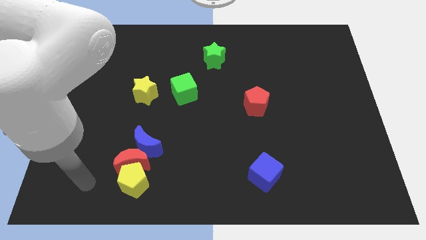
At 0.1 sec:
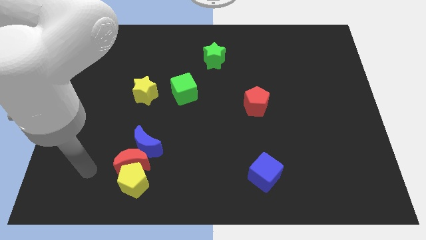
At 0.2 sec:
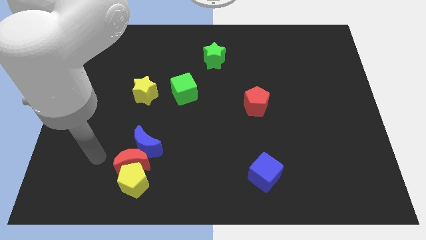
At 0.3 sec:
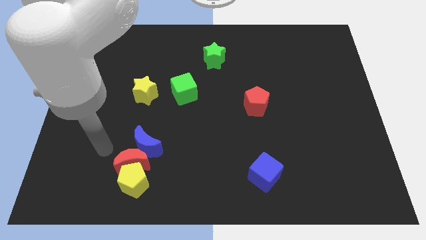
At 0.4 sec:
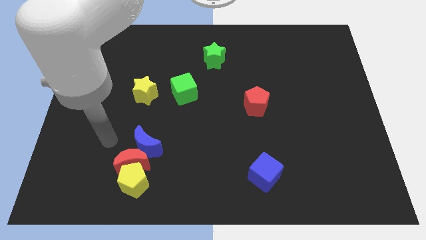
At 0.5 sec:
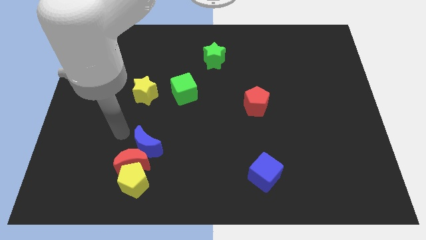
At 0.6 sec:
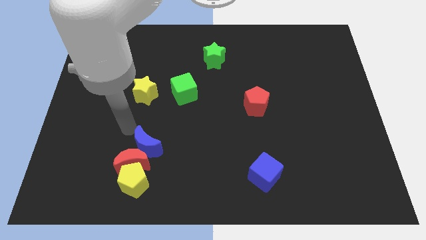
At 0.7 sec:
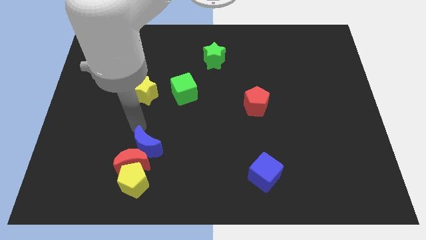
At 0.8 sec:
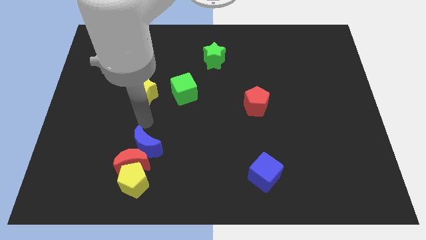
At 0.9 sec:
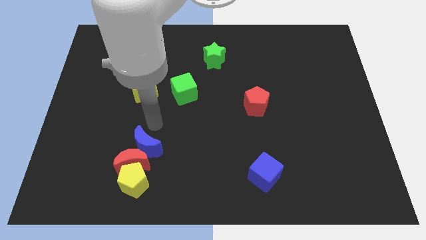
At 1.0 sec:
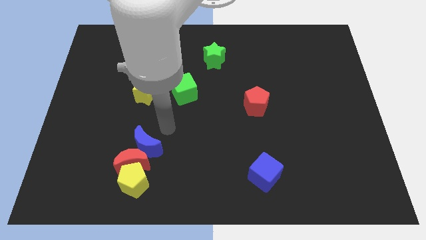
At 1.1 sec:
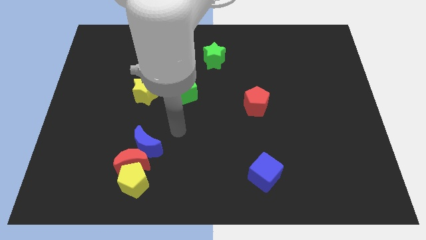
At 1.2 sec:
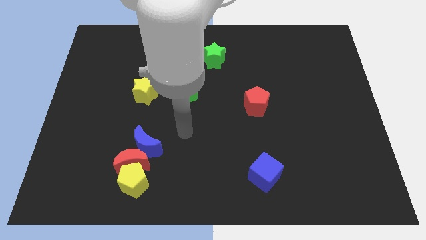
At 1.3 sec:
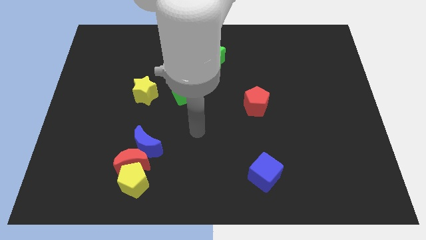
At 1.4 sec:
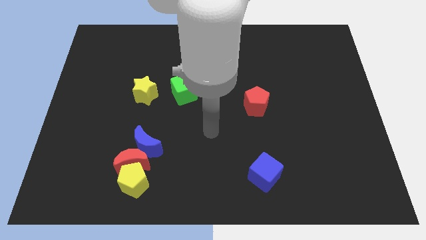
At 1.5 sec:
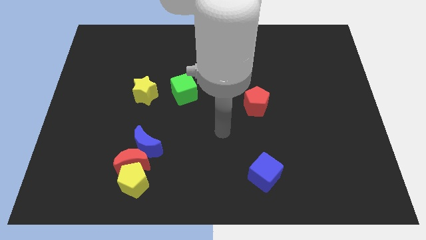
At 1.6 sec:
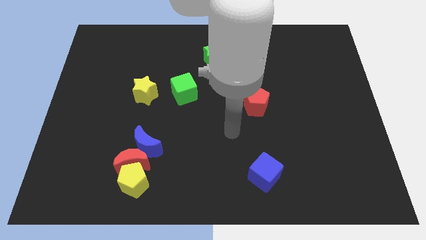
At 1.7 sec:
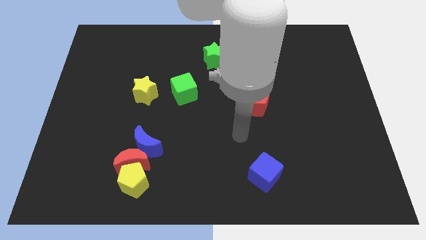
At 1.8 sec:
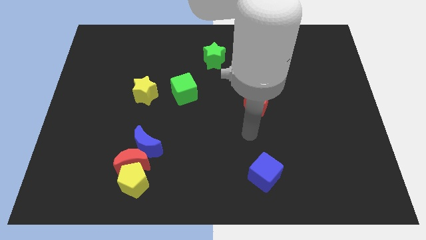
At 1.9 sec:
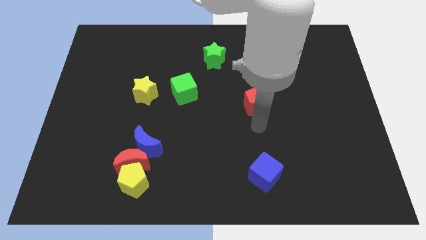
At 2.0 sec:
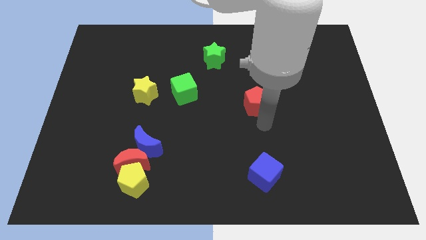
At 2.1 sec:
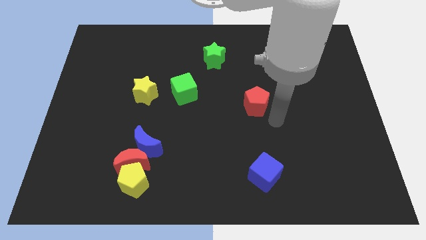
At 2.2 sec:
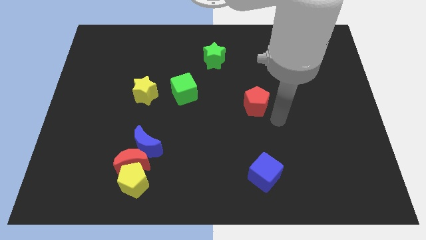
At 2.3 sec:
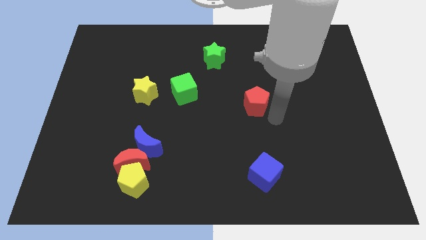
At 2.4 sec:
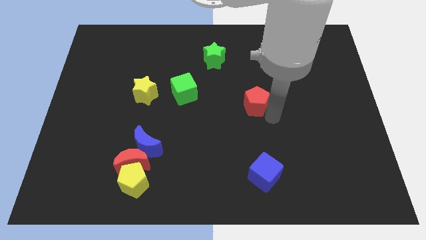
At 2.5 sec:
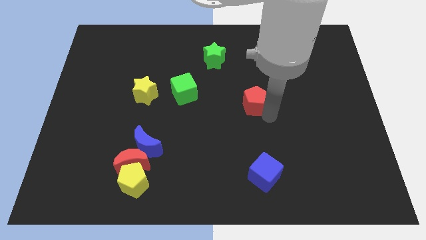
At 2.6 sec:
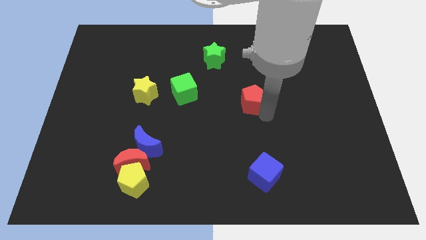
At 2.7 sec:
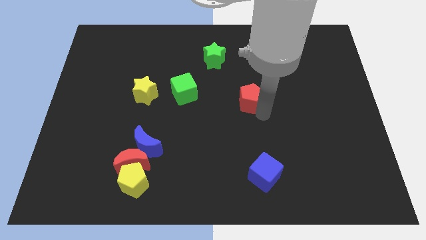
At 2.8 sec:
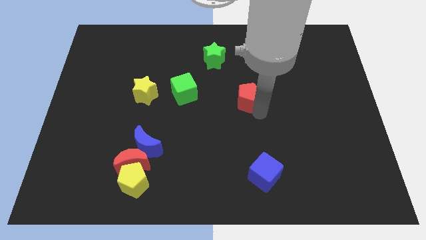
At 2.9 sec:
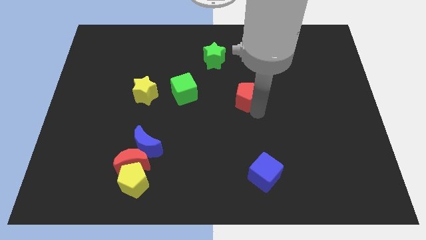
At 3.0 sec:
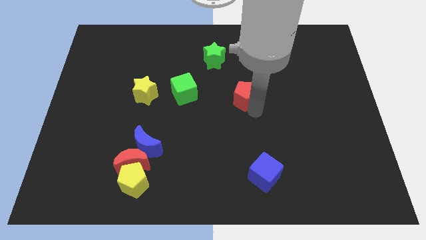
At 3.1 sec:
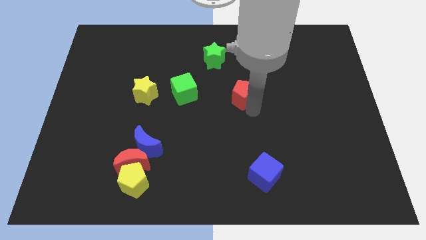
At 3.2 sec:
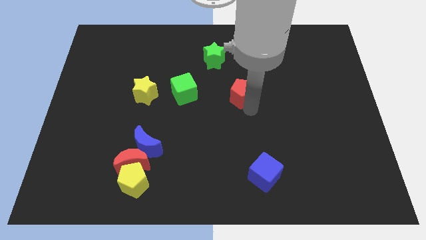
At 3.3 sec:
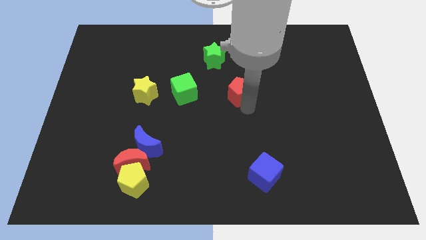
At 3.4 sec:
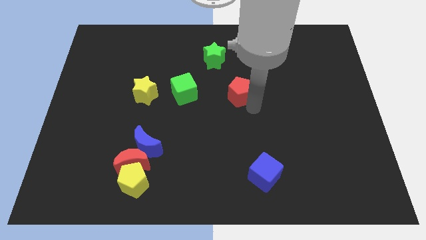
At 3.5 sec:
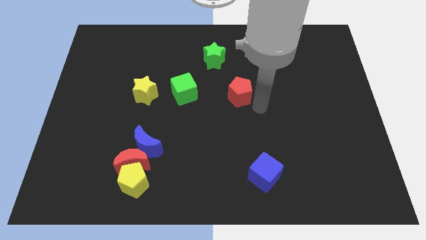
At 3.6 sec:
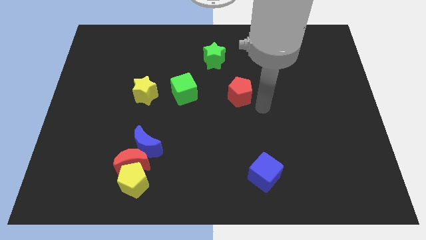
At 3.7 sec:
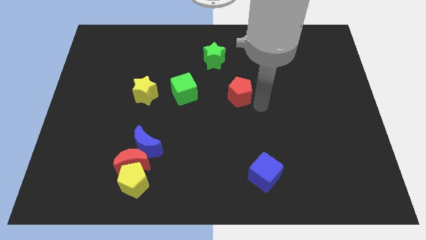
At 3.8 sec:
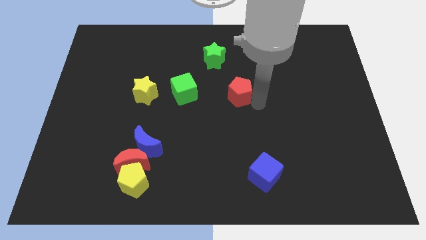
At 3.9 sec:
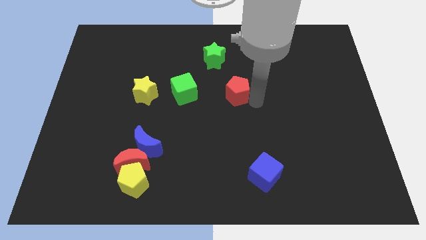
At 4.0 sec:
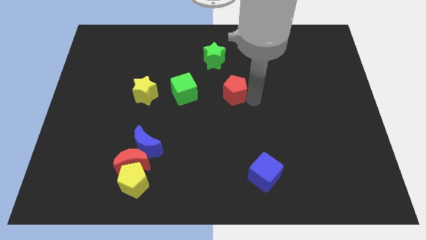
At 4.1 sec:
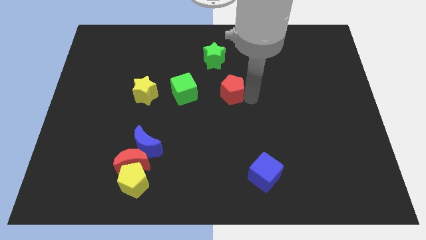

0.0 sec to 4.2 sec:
push the red pentagon a little upwards and left

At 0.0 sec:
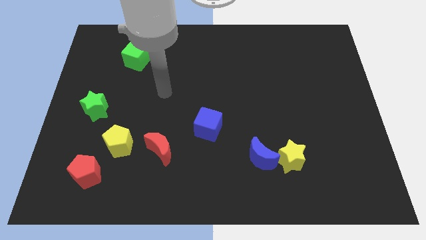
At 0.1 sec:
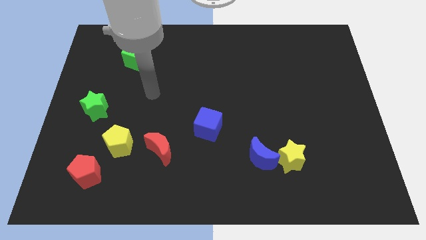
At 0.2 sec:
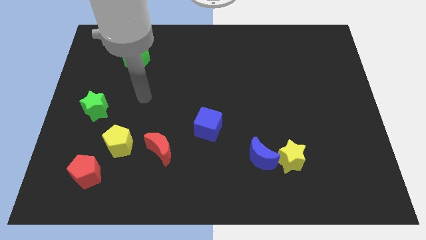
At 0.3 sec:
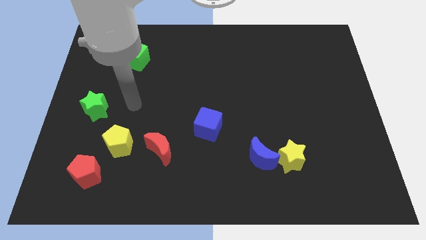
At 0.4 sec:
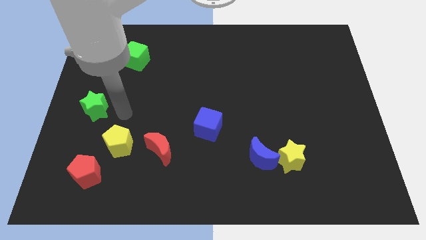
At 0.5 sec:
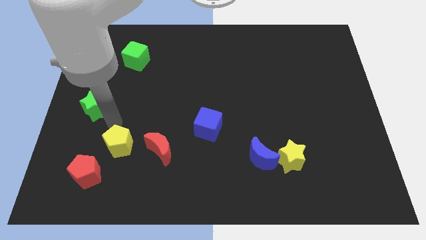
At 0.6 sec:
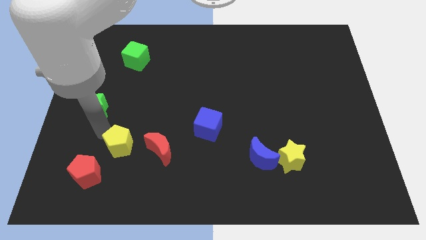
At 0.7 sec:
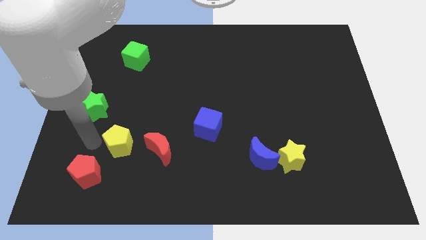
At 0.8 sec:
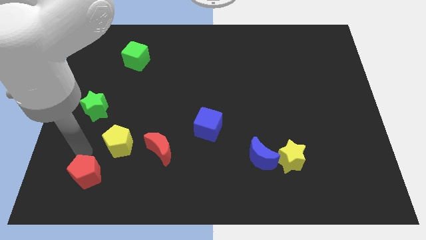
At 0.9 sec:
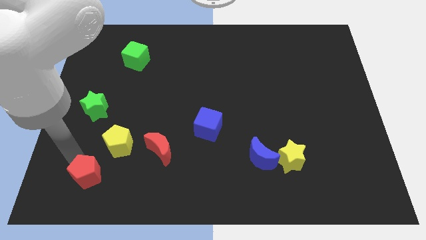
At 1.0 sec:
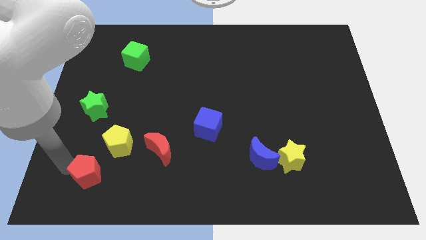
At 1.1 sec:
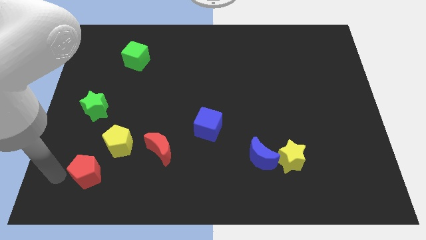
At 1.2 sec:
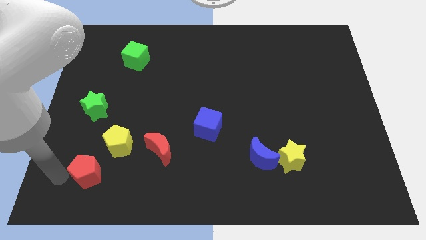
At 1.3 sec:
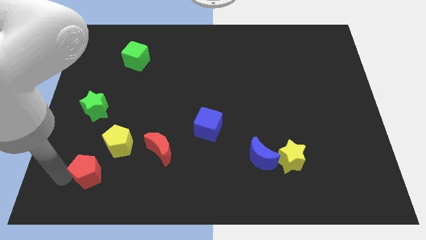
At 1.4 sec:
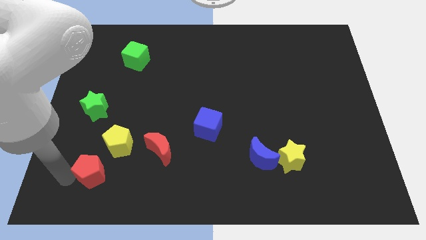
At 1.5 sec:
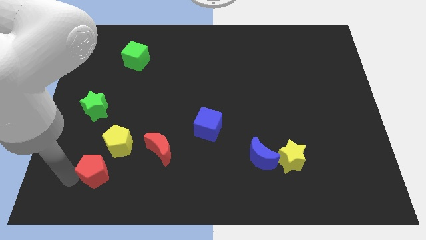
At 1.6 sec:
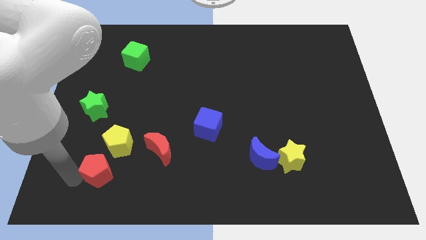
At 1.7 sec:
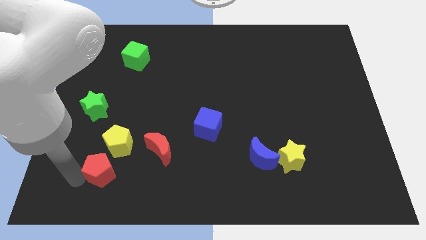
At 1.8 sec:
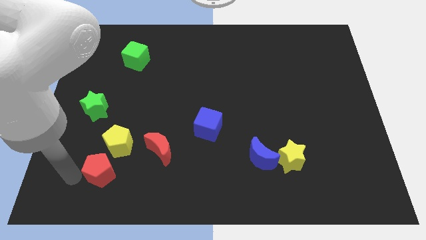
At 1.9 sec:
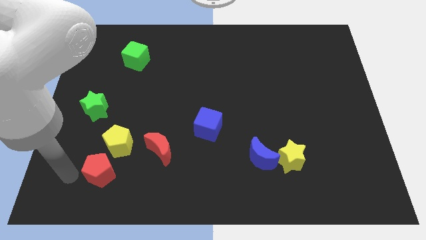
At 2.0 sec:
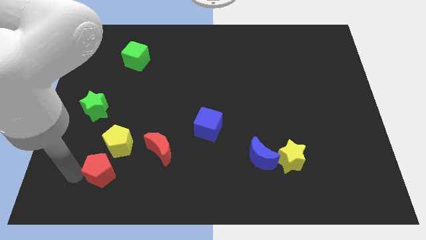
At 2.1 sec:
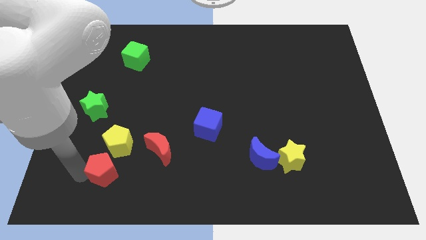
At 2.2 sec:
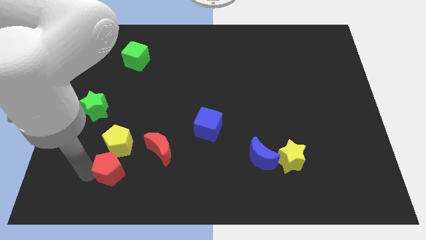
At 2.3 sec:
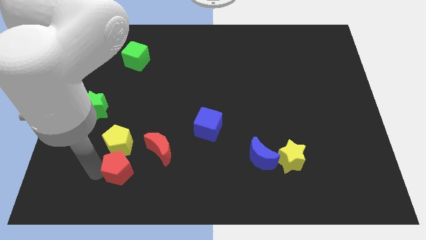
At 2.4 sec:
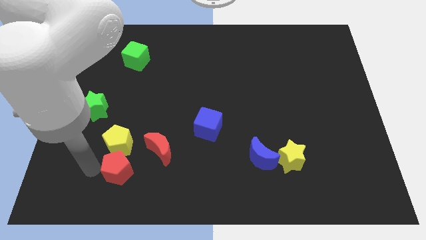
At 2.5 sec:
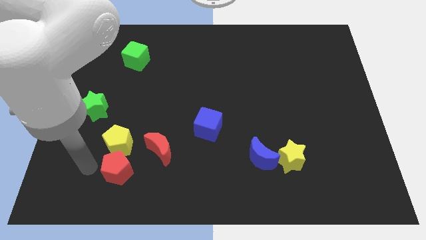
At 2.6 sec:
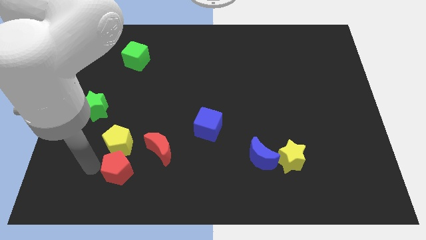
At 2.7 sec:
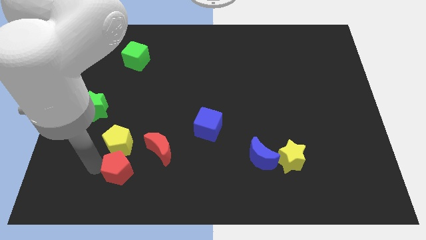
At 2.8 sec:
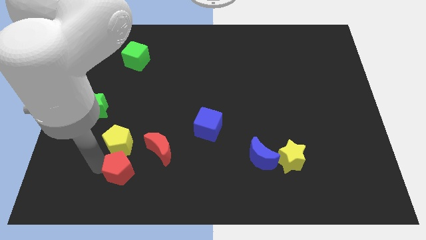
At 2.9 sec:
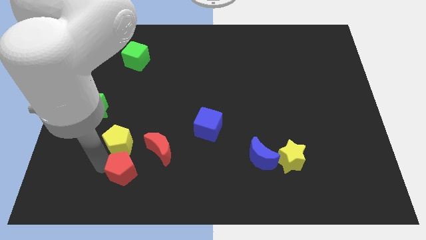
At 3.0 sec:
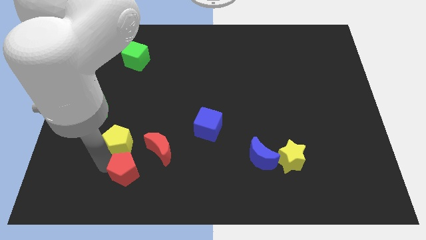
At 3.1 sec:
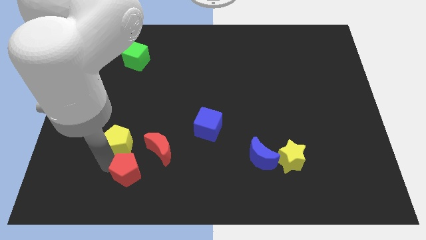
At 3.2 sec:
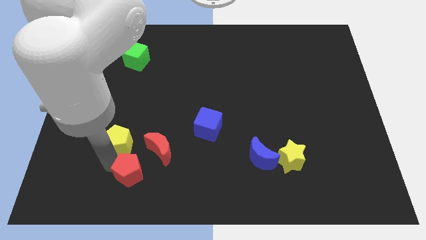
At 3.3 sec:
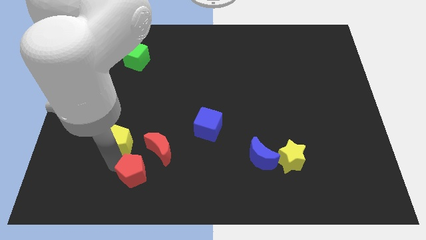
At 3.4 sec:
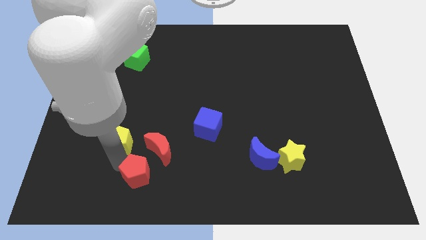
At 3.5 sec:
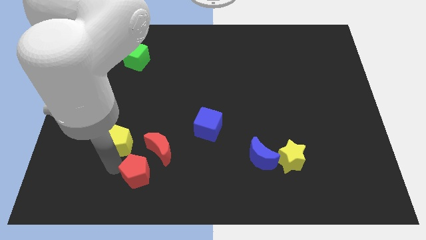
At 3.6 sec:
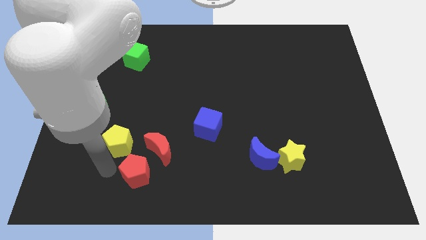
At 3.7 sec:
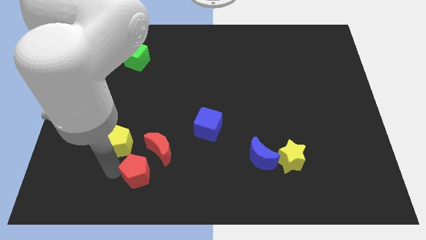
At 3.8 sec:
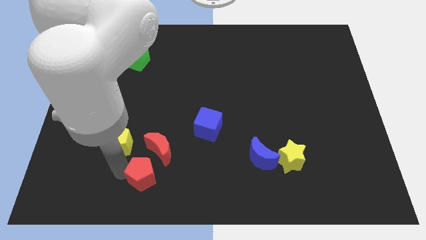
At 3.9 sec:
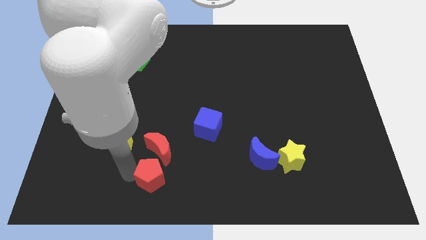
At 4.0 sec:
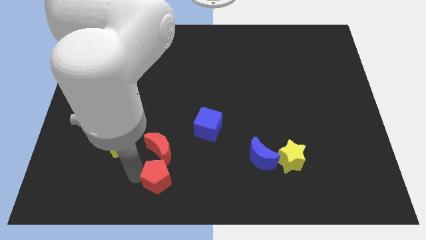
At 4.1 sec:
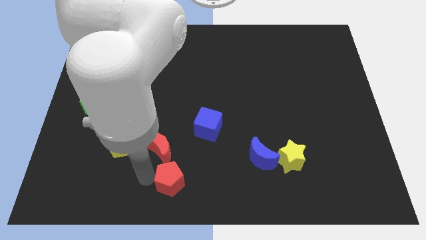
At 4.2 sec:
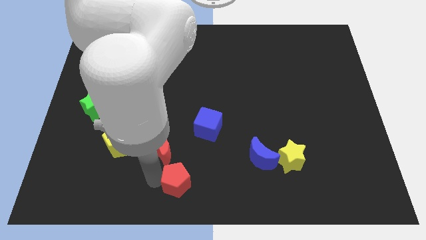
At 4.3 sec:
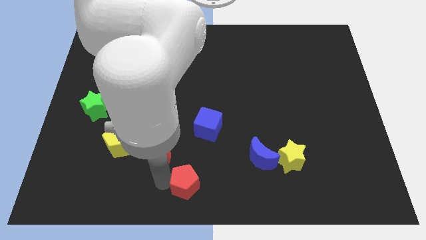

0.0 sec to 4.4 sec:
push the red pentagon right
